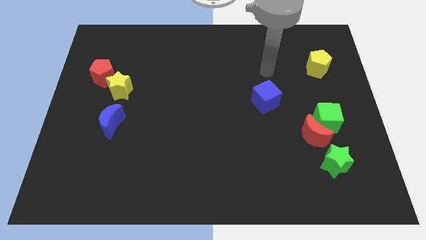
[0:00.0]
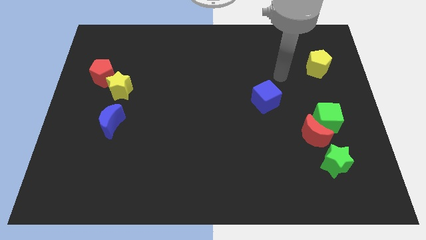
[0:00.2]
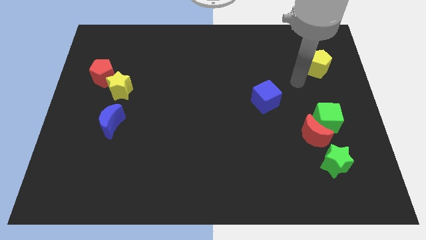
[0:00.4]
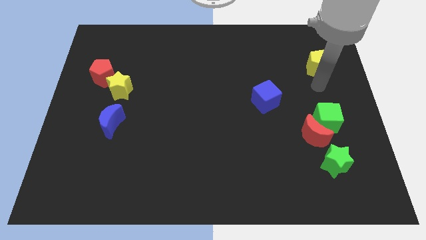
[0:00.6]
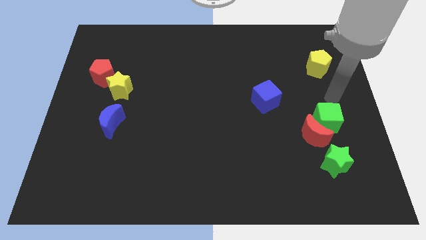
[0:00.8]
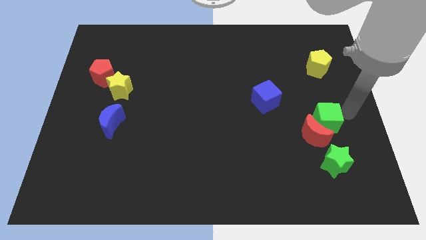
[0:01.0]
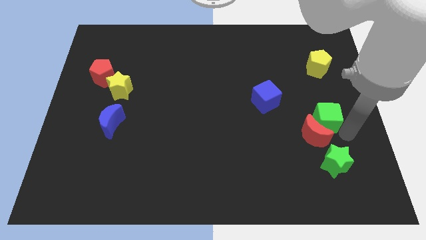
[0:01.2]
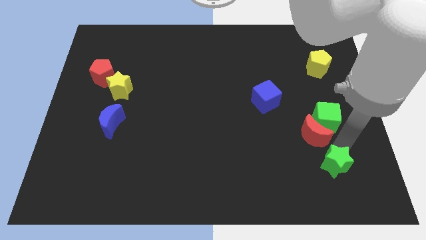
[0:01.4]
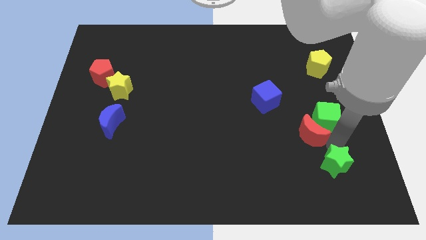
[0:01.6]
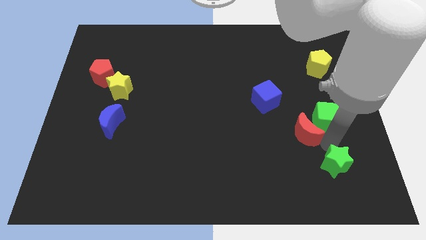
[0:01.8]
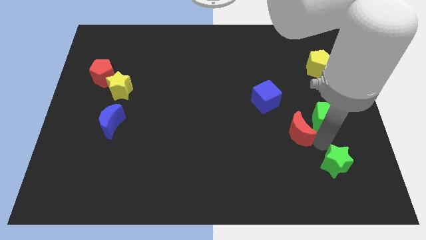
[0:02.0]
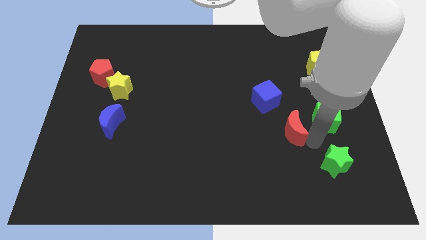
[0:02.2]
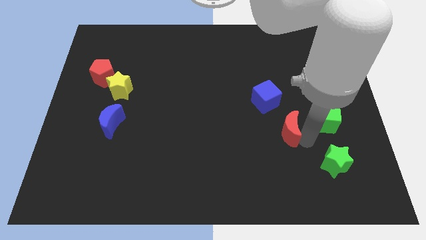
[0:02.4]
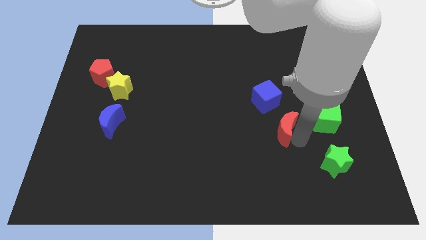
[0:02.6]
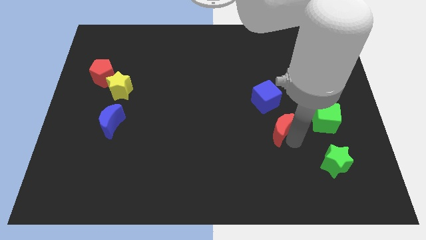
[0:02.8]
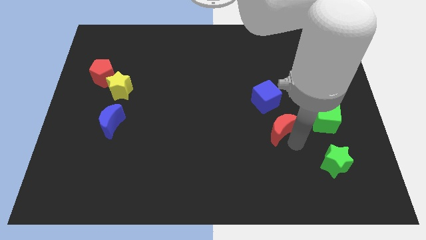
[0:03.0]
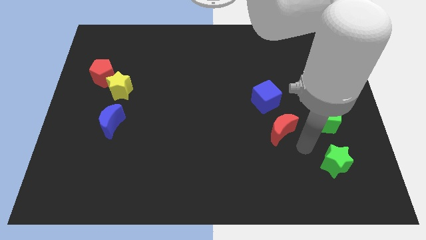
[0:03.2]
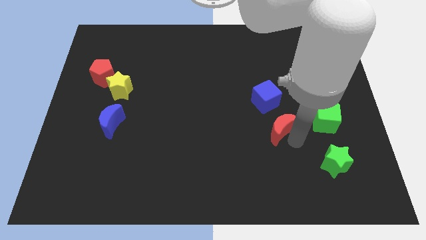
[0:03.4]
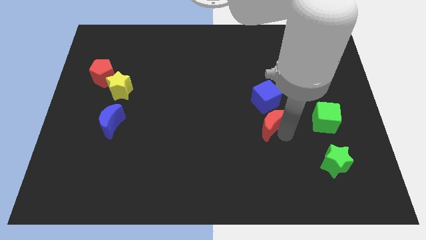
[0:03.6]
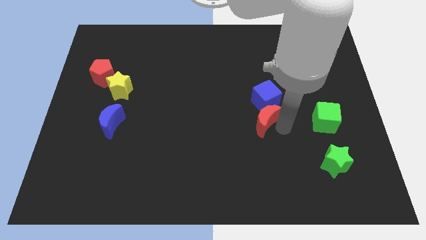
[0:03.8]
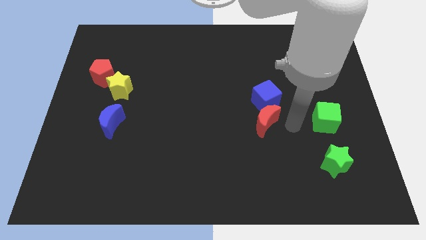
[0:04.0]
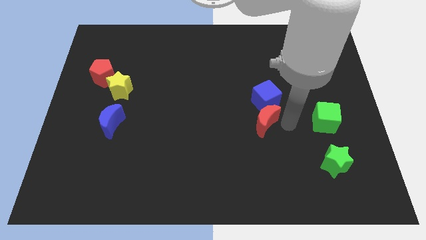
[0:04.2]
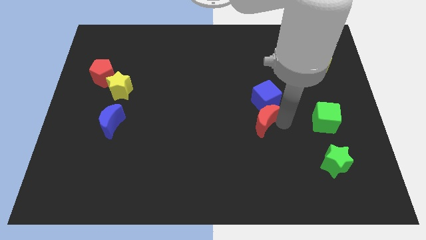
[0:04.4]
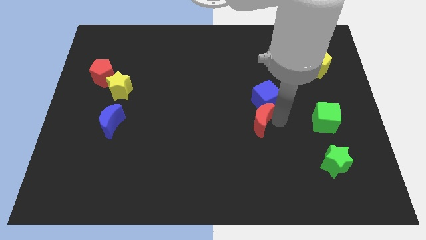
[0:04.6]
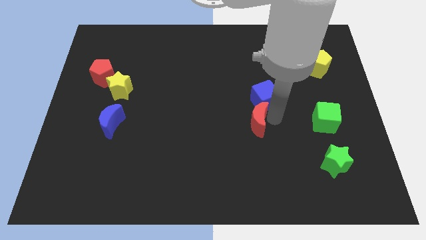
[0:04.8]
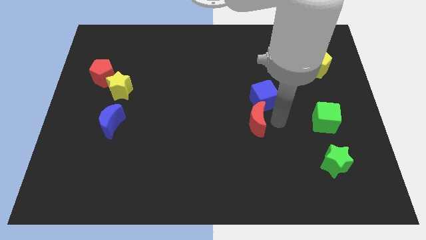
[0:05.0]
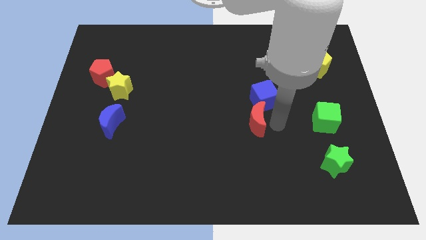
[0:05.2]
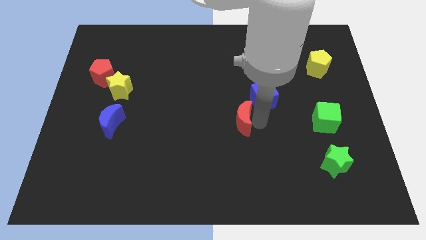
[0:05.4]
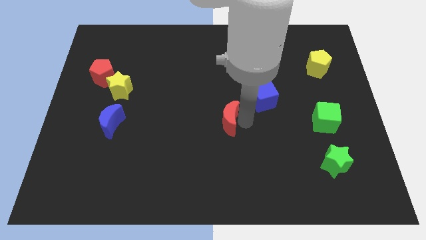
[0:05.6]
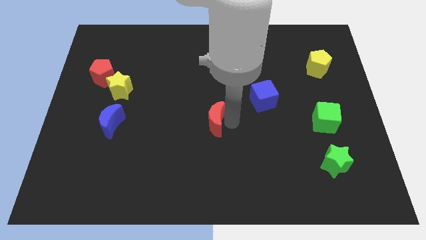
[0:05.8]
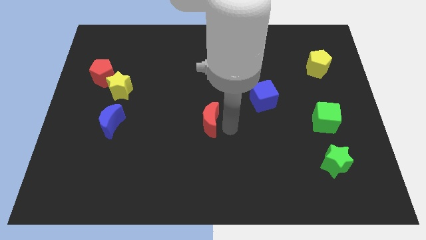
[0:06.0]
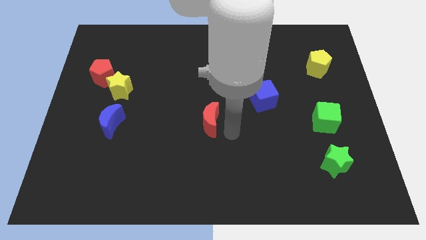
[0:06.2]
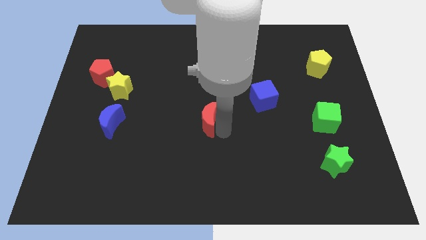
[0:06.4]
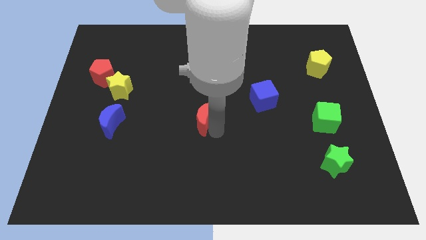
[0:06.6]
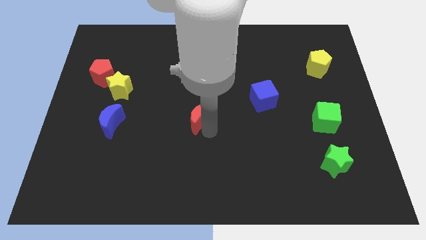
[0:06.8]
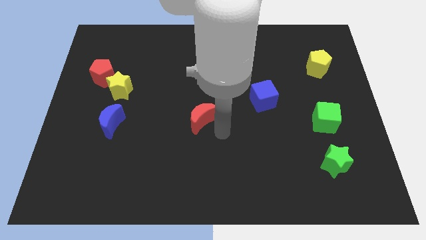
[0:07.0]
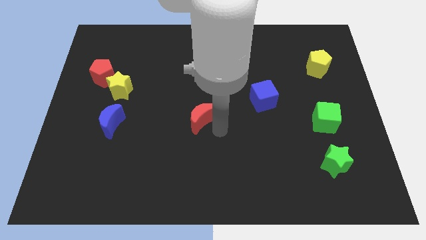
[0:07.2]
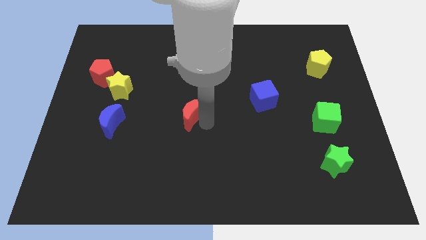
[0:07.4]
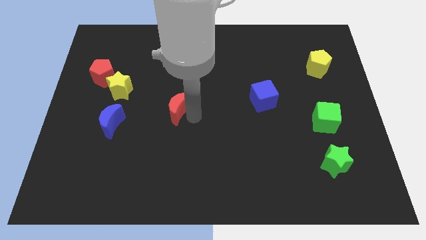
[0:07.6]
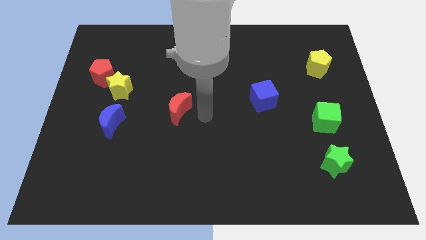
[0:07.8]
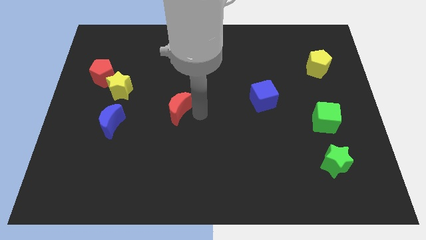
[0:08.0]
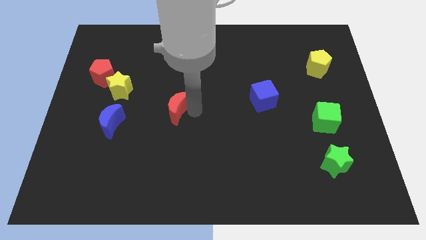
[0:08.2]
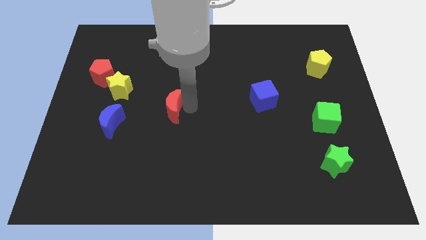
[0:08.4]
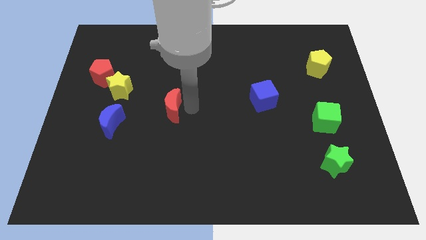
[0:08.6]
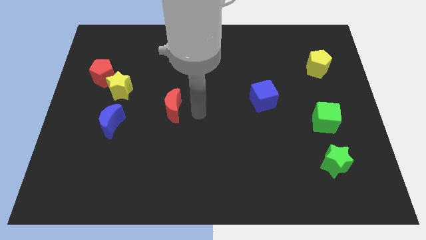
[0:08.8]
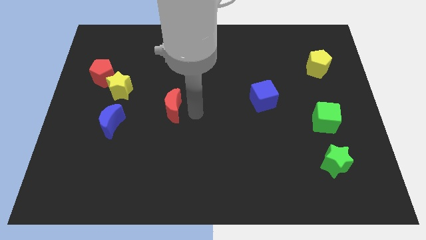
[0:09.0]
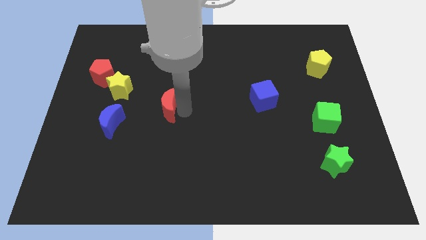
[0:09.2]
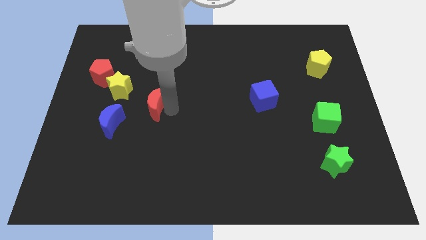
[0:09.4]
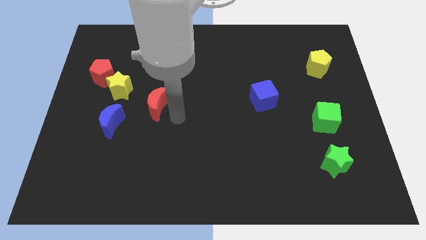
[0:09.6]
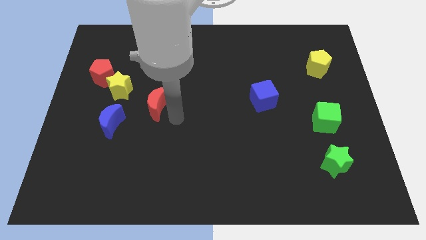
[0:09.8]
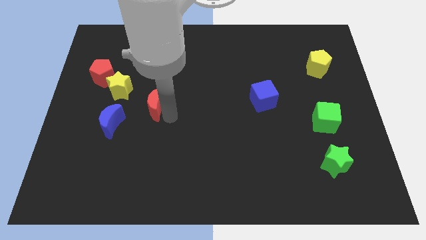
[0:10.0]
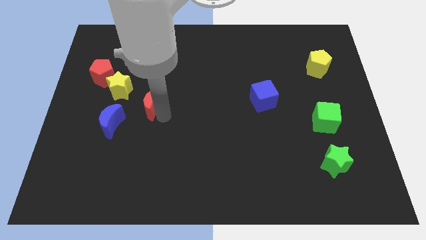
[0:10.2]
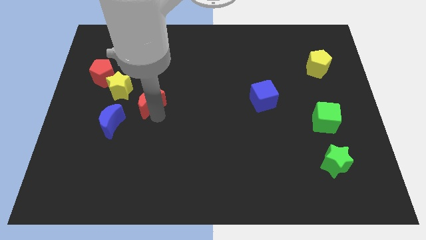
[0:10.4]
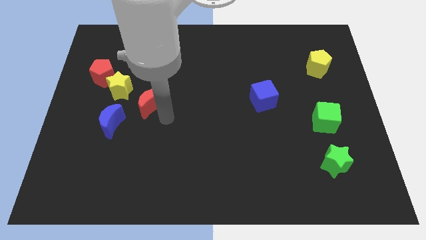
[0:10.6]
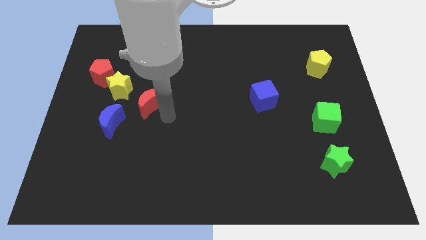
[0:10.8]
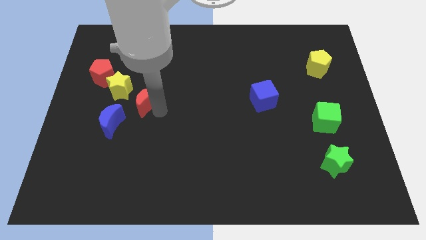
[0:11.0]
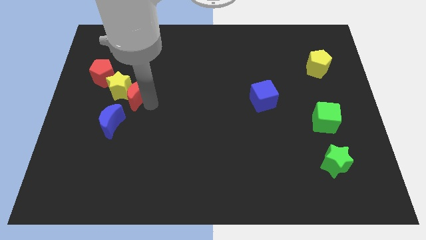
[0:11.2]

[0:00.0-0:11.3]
push the red moon next to the yellow star

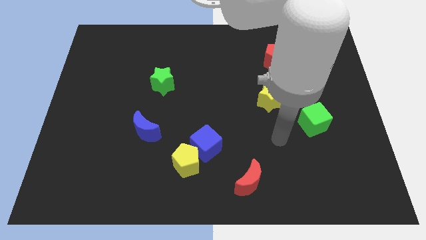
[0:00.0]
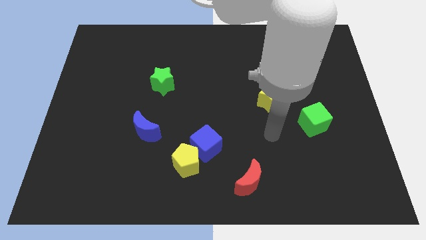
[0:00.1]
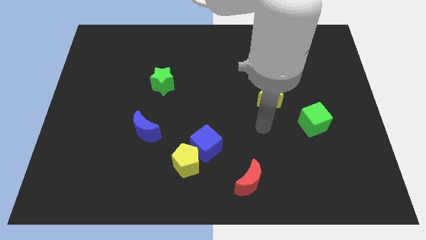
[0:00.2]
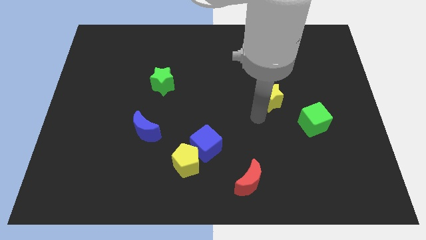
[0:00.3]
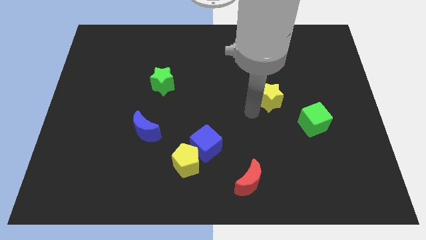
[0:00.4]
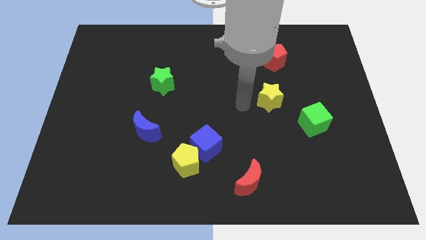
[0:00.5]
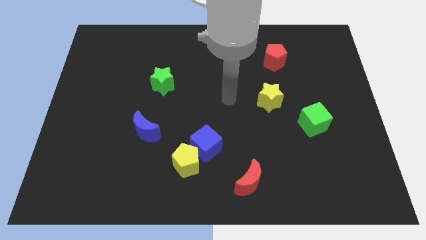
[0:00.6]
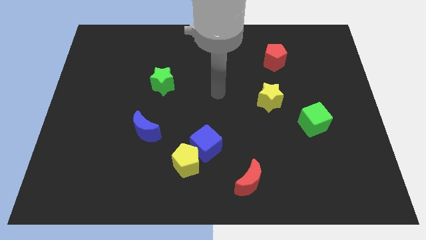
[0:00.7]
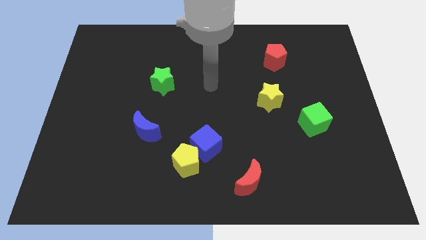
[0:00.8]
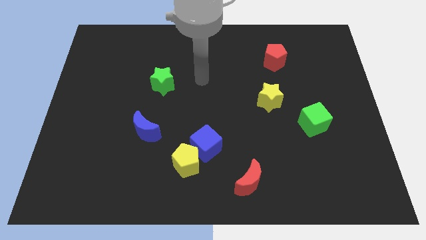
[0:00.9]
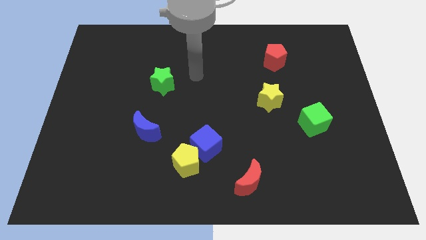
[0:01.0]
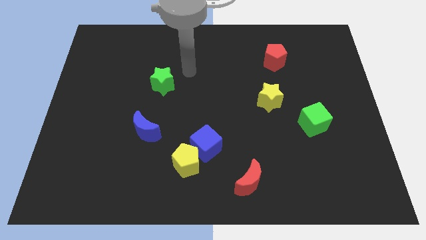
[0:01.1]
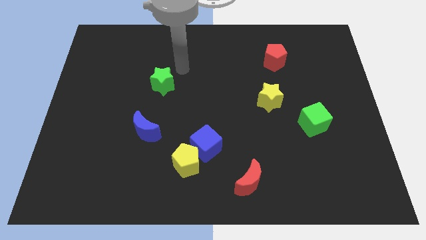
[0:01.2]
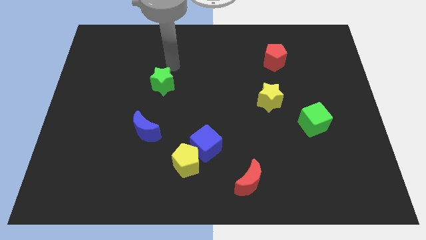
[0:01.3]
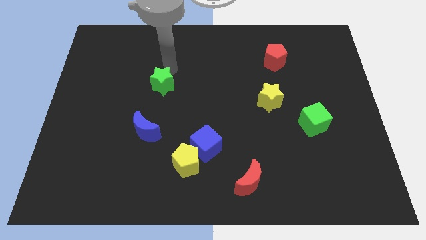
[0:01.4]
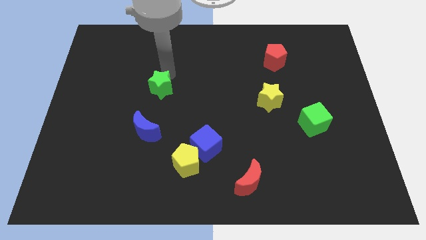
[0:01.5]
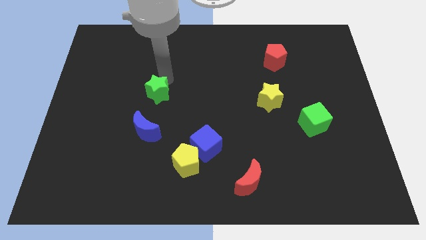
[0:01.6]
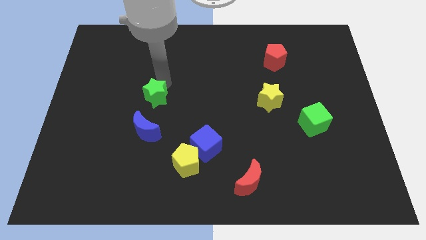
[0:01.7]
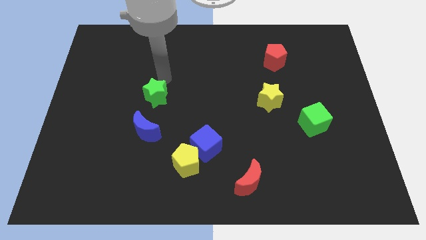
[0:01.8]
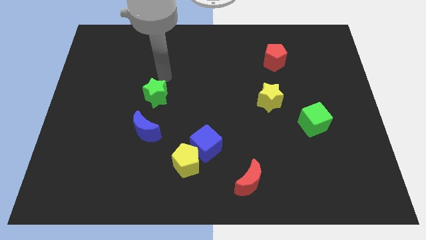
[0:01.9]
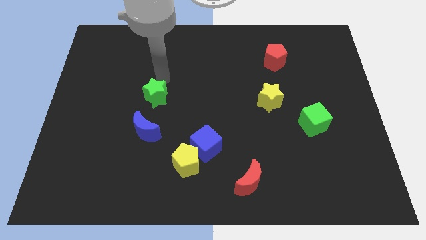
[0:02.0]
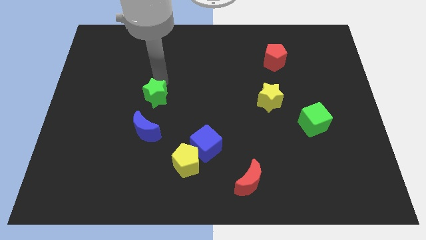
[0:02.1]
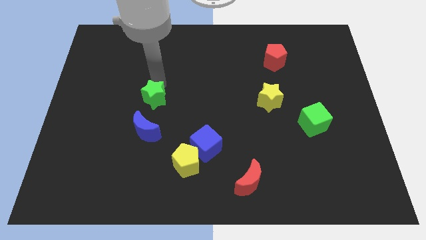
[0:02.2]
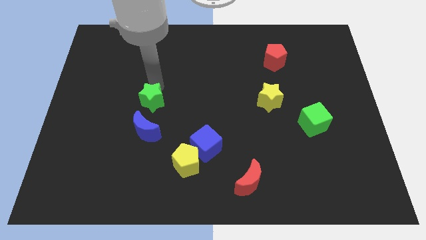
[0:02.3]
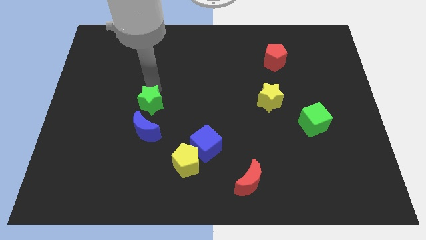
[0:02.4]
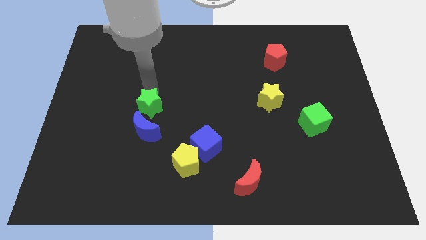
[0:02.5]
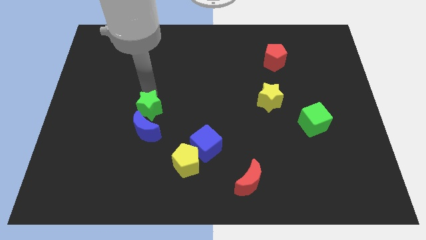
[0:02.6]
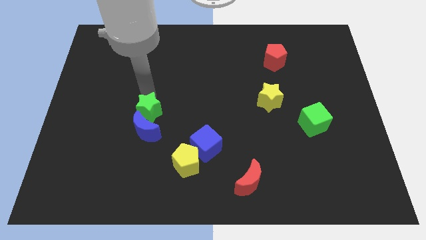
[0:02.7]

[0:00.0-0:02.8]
push the green star towards the blue moon
